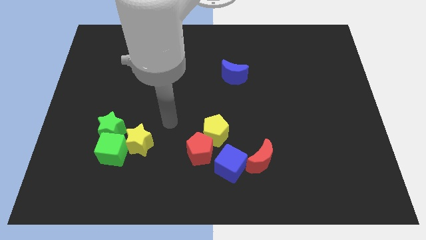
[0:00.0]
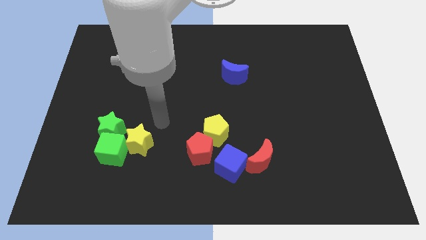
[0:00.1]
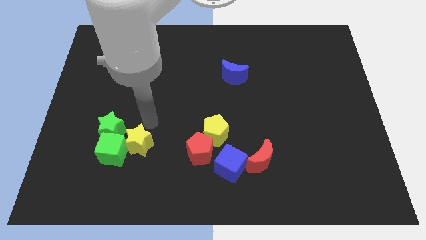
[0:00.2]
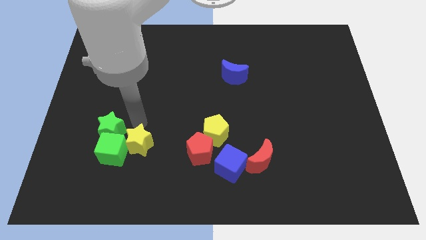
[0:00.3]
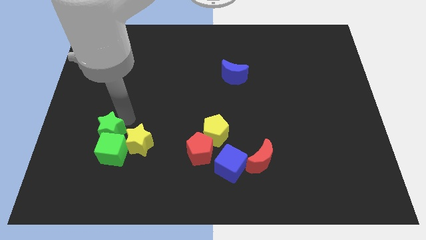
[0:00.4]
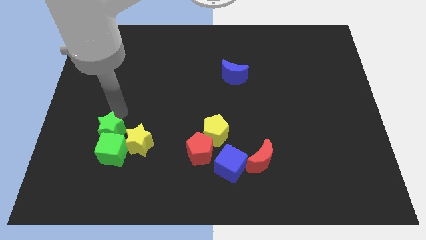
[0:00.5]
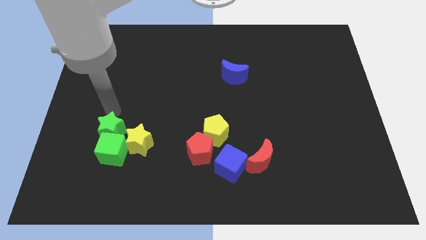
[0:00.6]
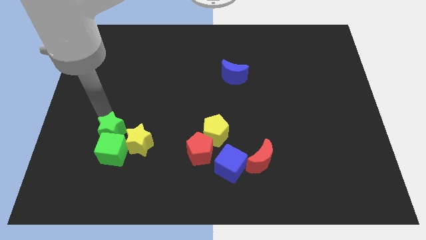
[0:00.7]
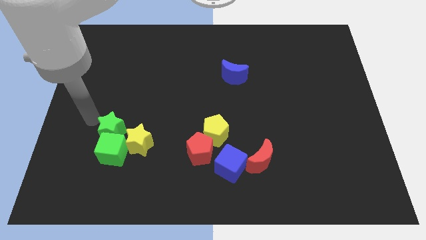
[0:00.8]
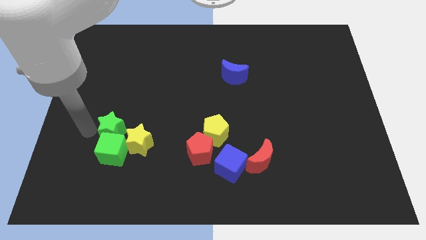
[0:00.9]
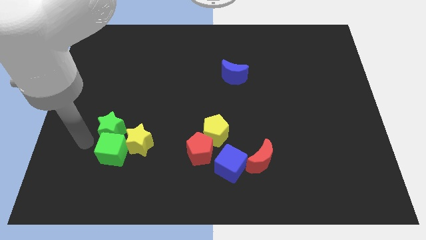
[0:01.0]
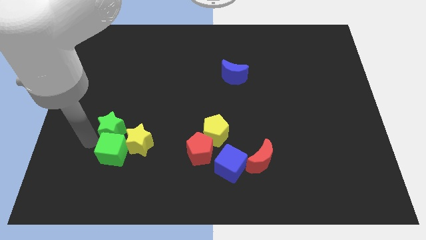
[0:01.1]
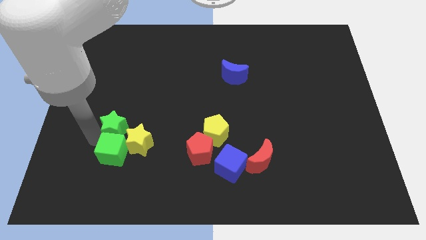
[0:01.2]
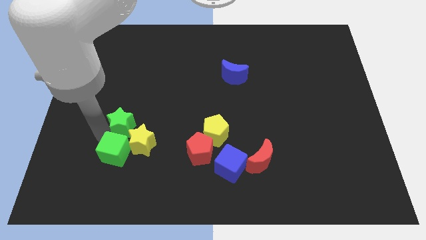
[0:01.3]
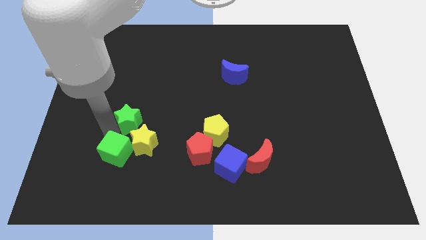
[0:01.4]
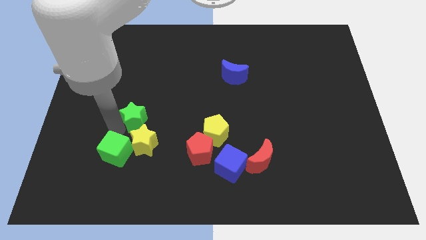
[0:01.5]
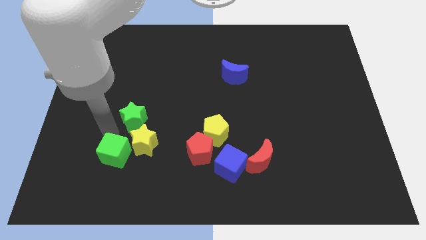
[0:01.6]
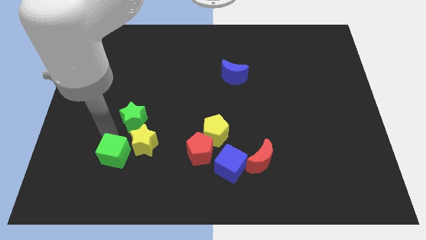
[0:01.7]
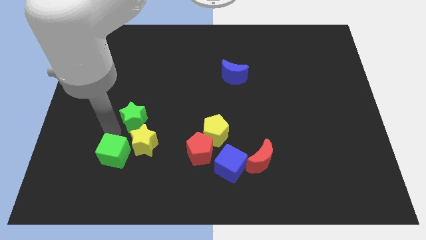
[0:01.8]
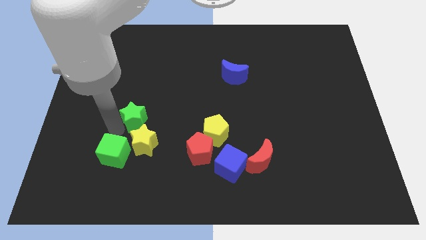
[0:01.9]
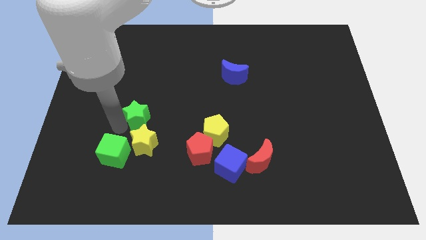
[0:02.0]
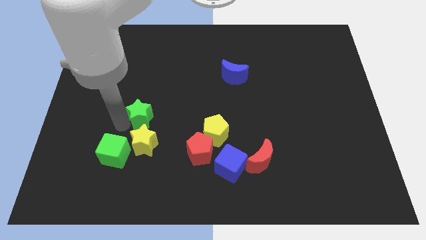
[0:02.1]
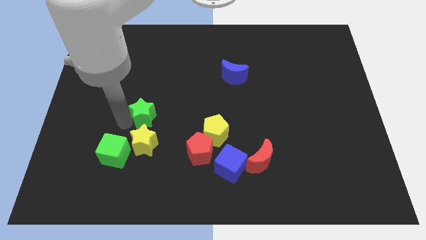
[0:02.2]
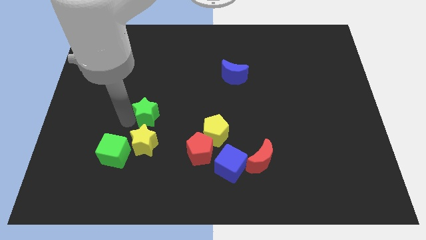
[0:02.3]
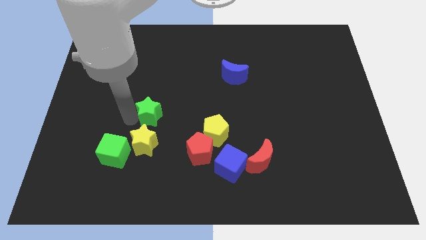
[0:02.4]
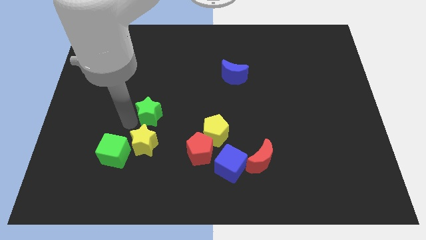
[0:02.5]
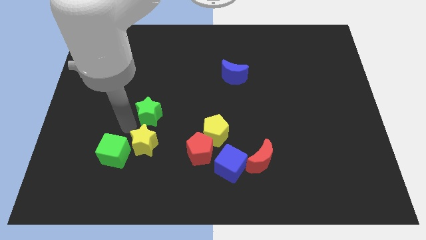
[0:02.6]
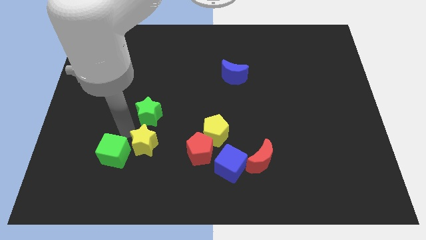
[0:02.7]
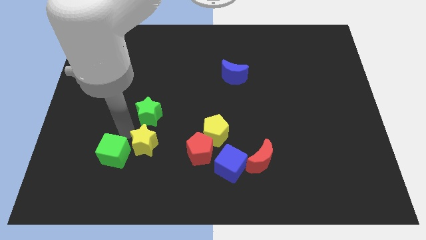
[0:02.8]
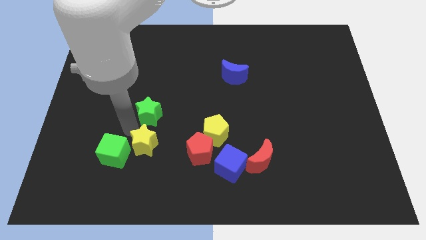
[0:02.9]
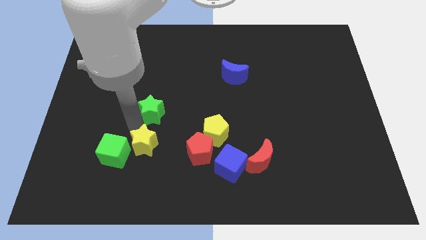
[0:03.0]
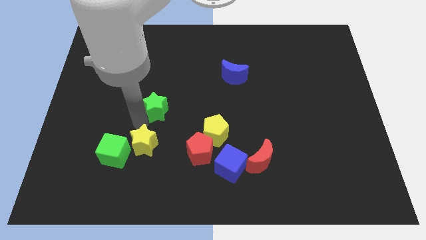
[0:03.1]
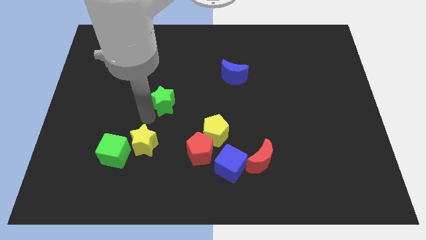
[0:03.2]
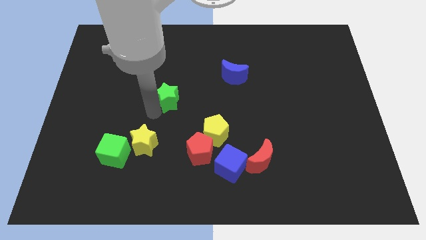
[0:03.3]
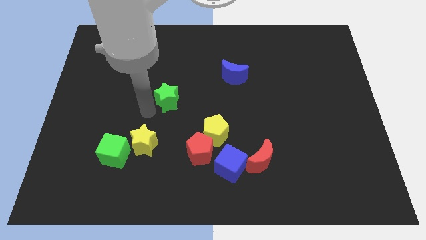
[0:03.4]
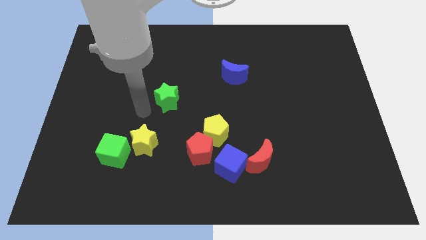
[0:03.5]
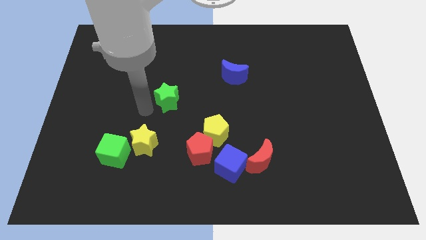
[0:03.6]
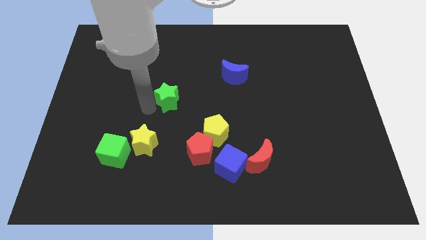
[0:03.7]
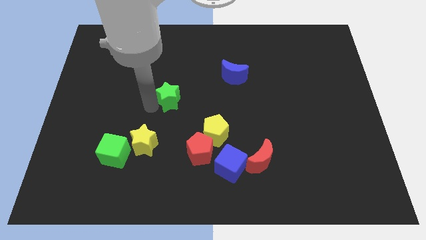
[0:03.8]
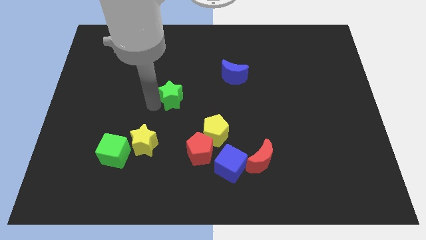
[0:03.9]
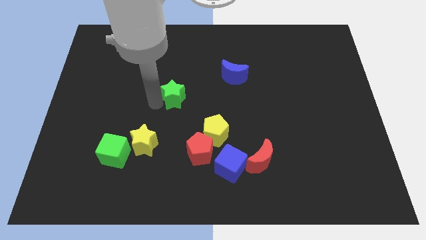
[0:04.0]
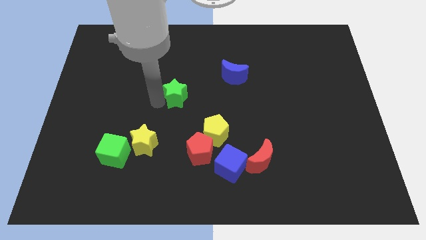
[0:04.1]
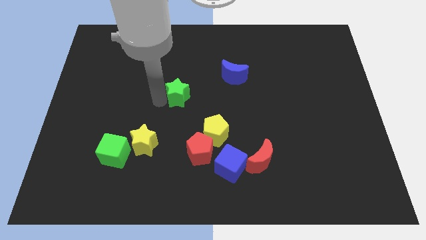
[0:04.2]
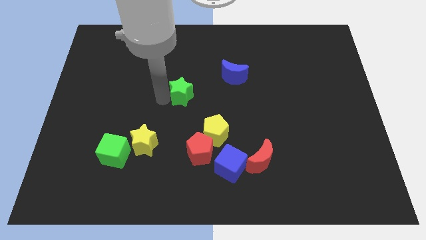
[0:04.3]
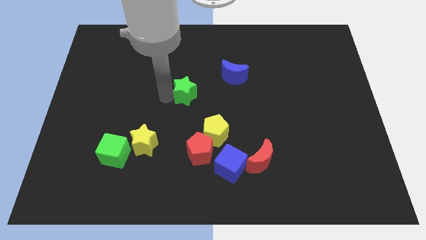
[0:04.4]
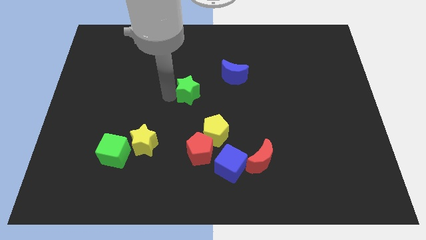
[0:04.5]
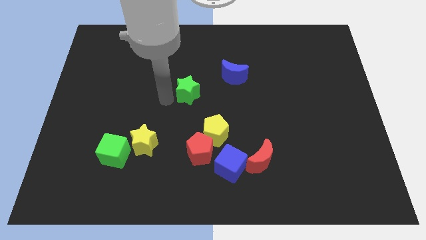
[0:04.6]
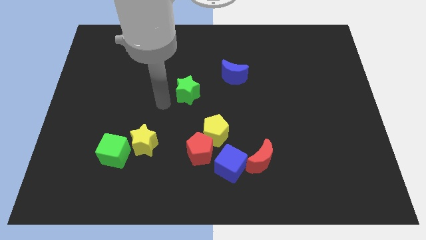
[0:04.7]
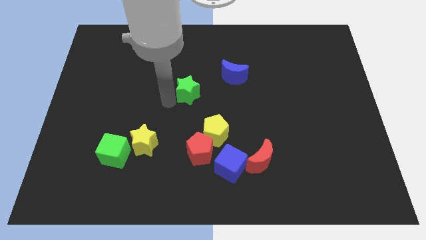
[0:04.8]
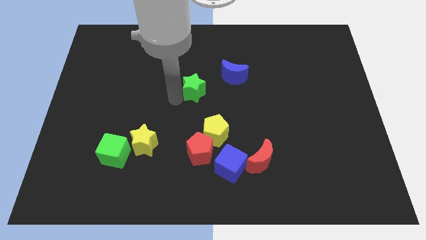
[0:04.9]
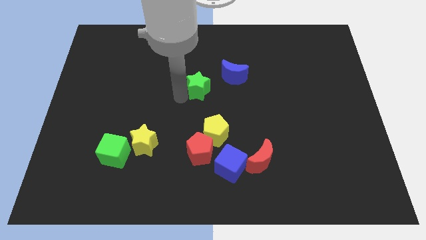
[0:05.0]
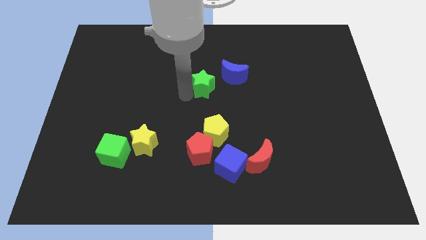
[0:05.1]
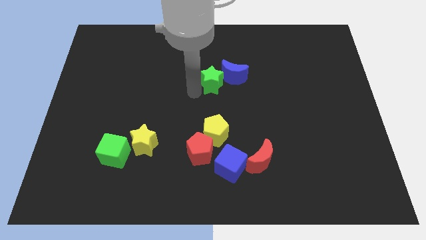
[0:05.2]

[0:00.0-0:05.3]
put the green star to the blue moon

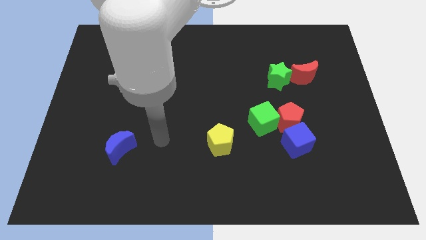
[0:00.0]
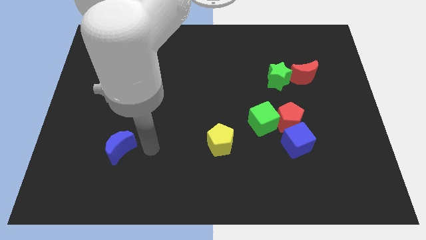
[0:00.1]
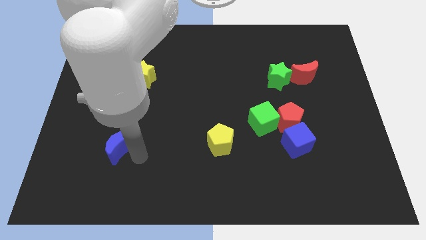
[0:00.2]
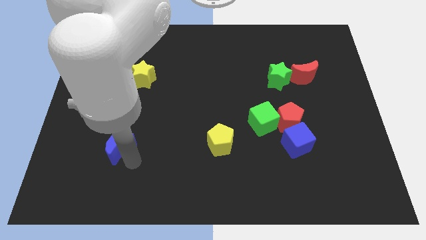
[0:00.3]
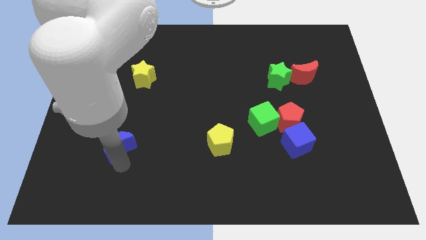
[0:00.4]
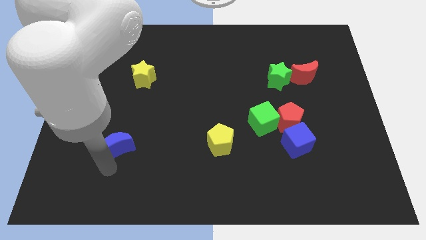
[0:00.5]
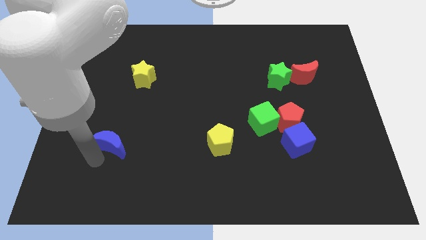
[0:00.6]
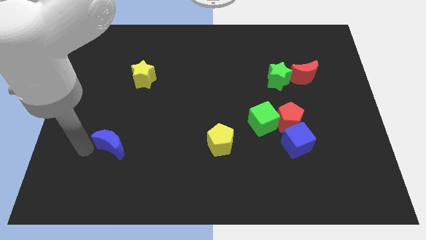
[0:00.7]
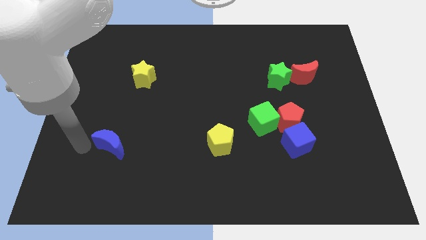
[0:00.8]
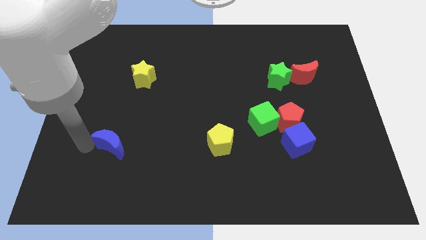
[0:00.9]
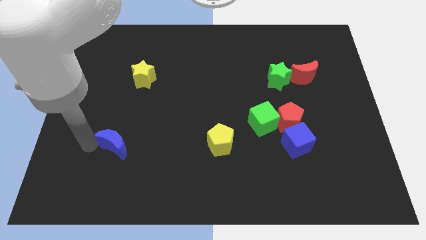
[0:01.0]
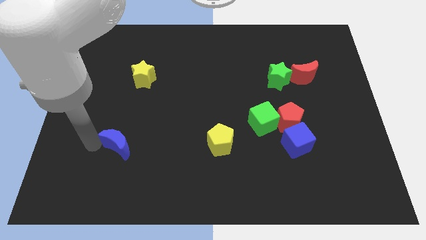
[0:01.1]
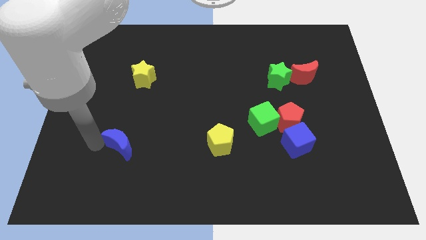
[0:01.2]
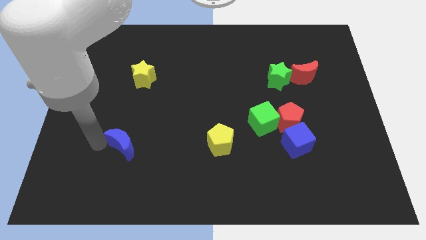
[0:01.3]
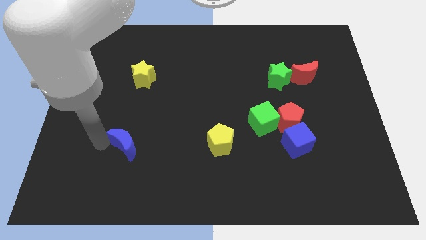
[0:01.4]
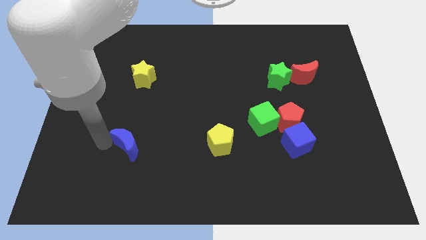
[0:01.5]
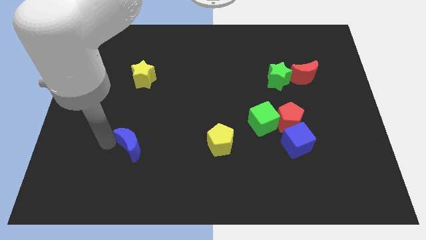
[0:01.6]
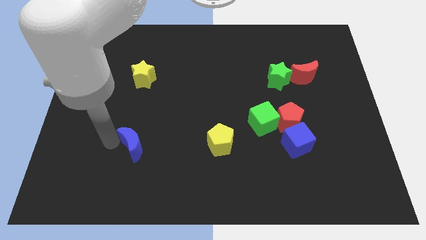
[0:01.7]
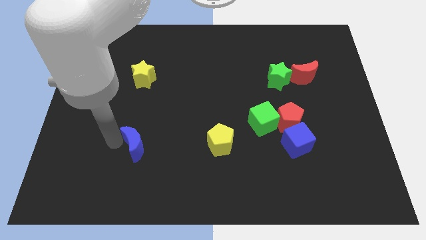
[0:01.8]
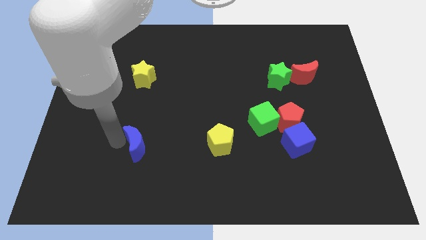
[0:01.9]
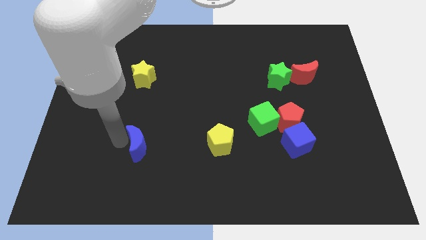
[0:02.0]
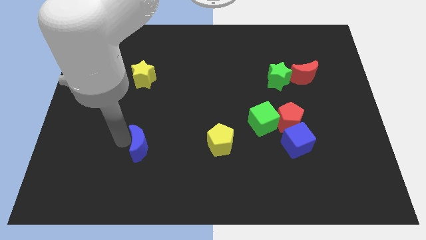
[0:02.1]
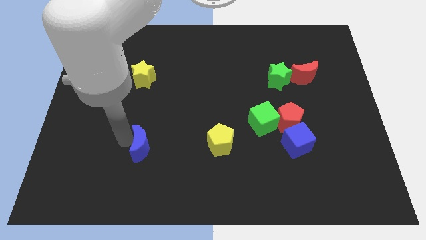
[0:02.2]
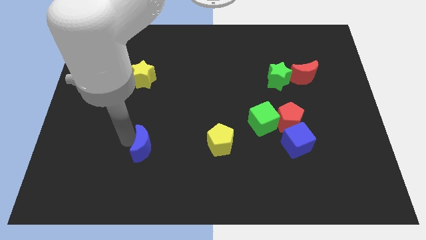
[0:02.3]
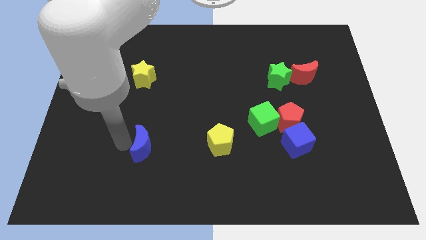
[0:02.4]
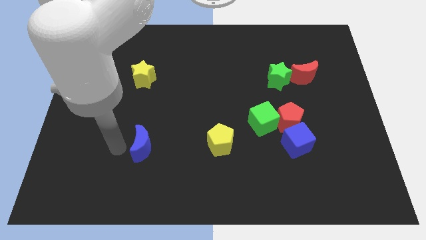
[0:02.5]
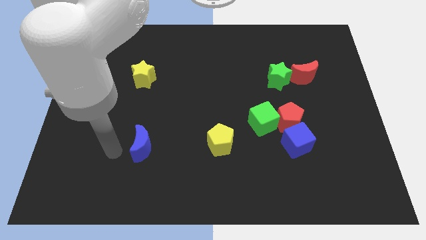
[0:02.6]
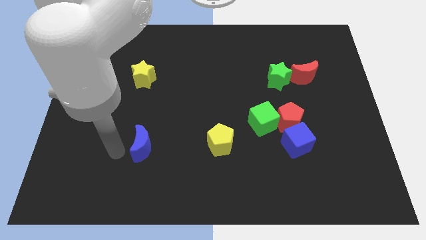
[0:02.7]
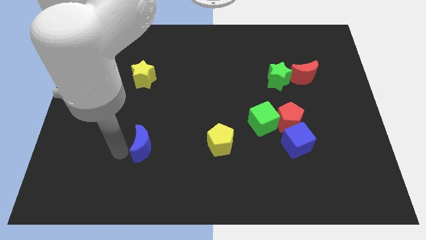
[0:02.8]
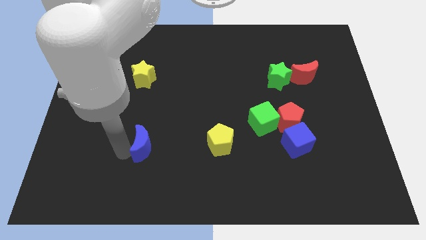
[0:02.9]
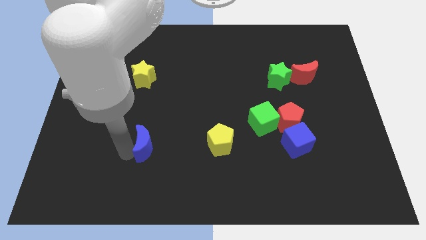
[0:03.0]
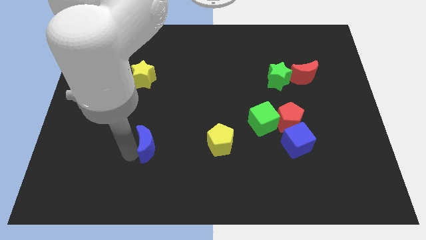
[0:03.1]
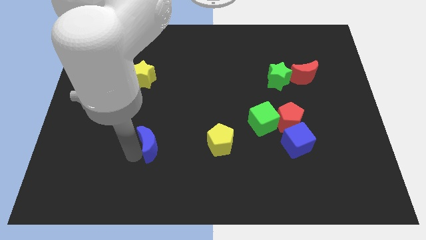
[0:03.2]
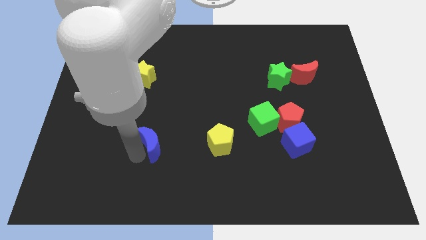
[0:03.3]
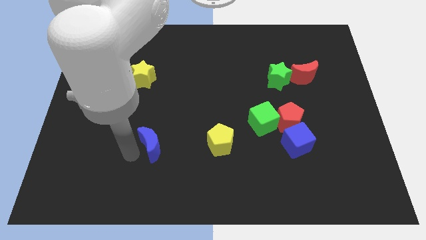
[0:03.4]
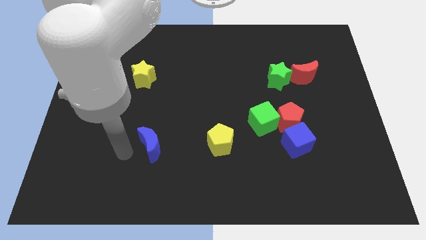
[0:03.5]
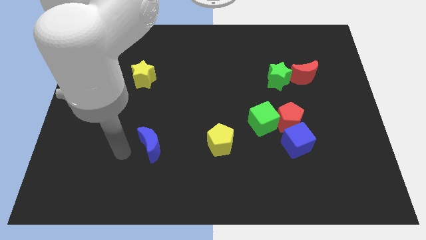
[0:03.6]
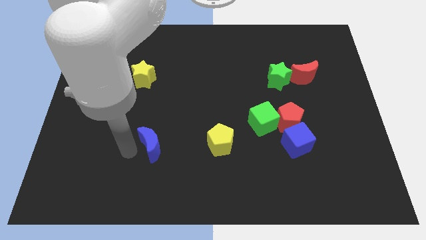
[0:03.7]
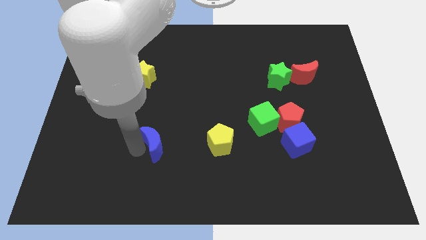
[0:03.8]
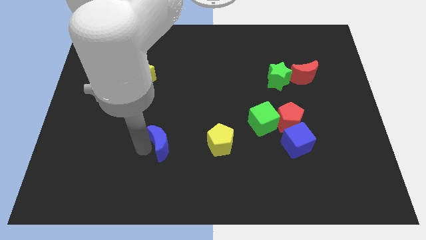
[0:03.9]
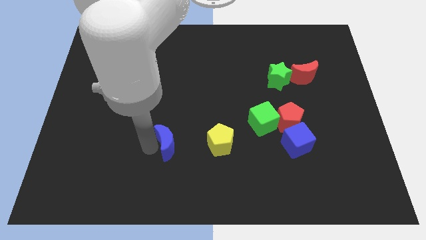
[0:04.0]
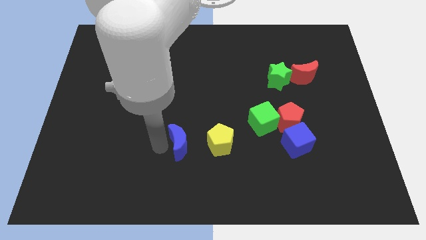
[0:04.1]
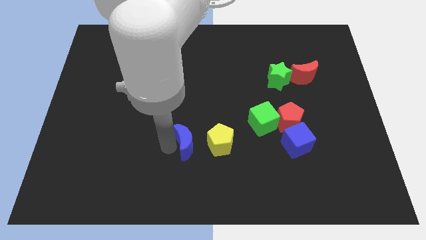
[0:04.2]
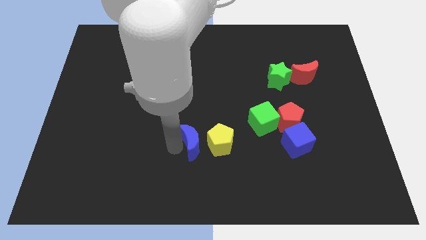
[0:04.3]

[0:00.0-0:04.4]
put the blue moon next to the yellow pentagon
